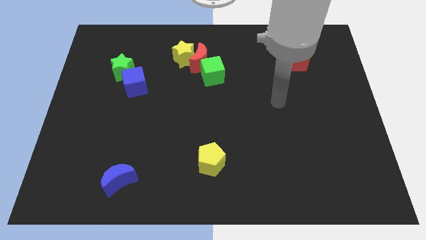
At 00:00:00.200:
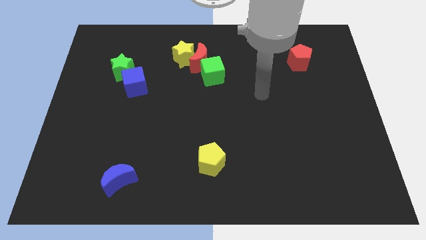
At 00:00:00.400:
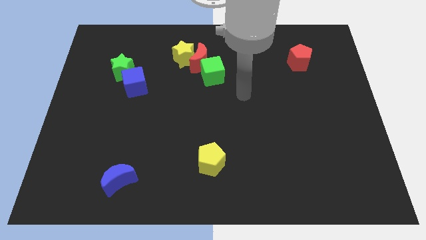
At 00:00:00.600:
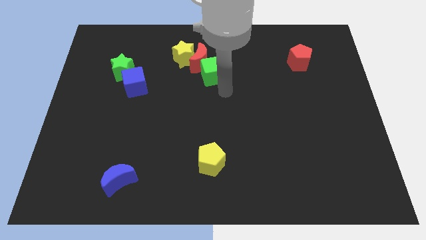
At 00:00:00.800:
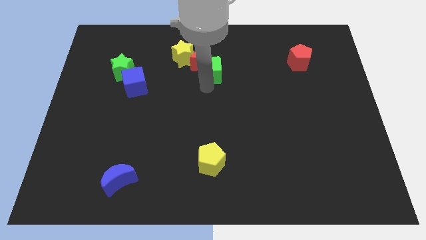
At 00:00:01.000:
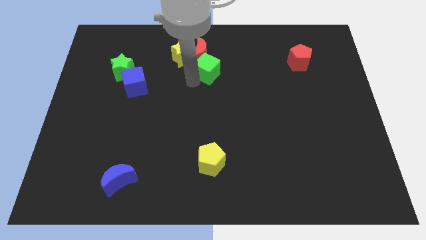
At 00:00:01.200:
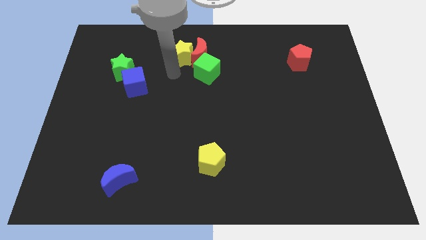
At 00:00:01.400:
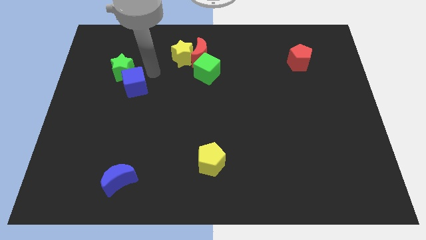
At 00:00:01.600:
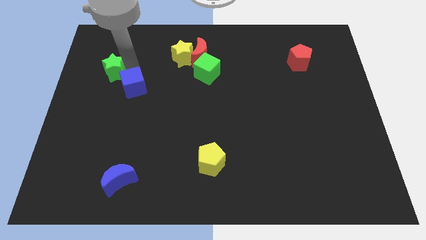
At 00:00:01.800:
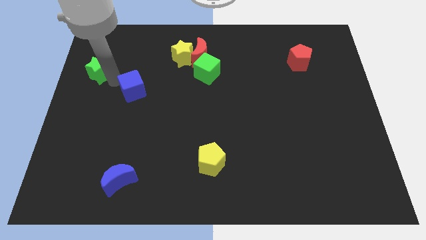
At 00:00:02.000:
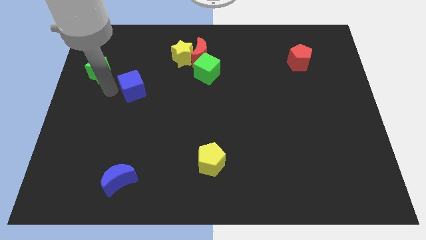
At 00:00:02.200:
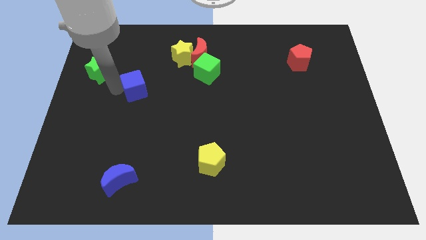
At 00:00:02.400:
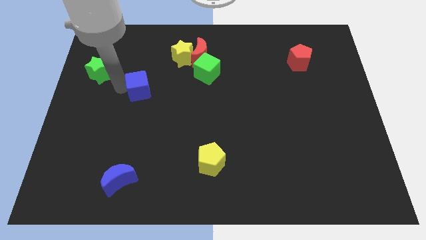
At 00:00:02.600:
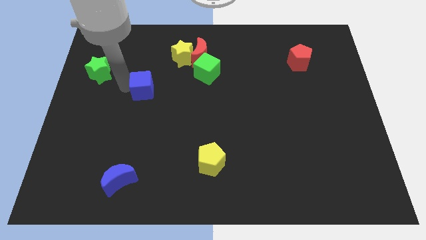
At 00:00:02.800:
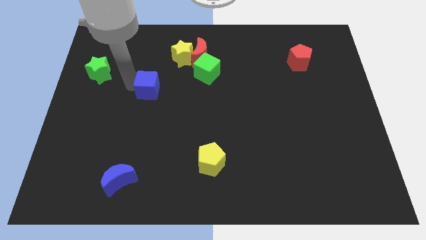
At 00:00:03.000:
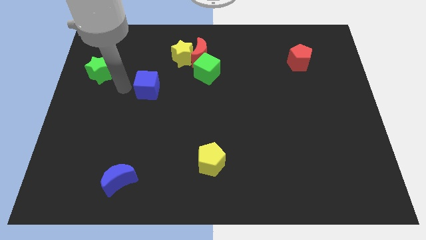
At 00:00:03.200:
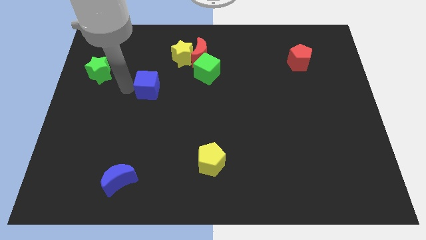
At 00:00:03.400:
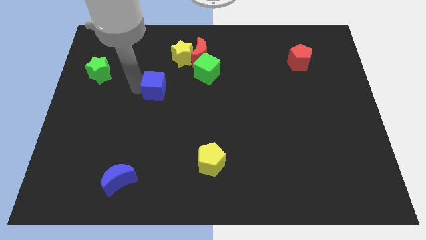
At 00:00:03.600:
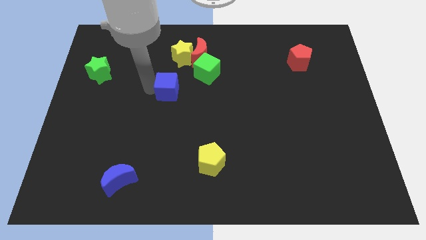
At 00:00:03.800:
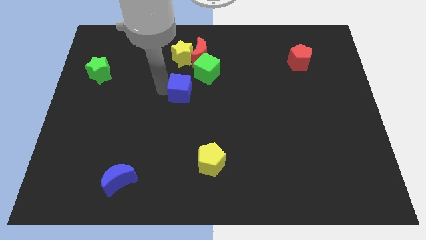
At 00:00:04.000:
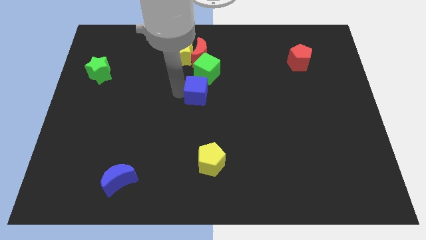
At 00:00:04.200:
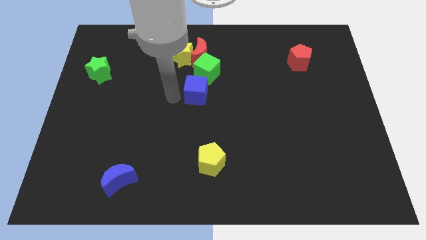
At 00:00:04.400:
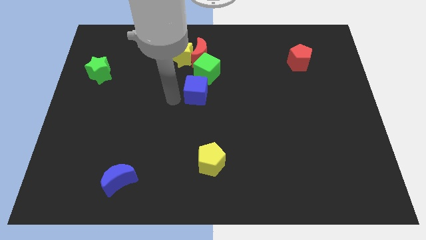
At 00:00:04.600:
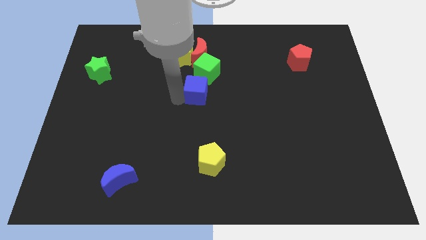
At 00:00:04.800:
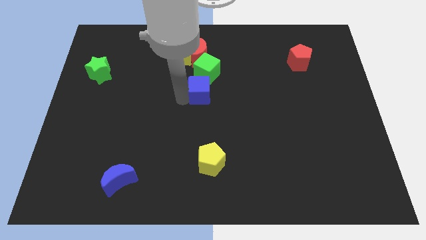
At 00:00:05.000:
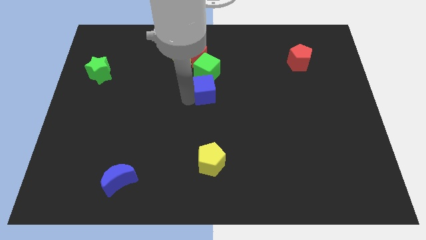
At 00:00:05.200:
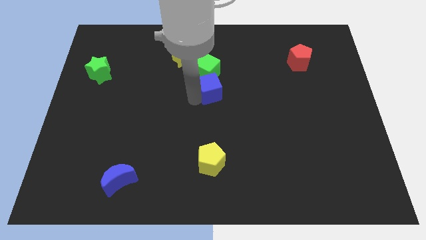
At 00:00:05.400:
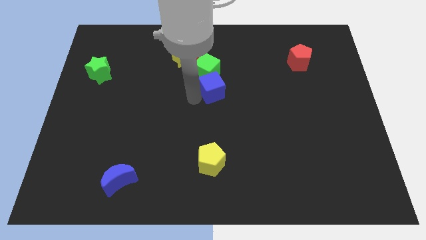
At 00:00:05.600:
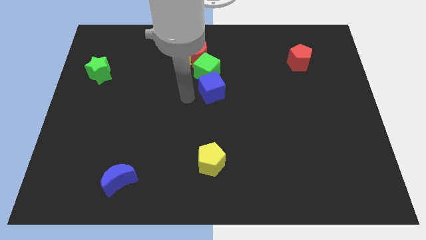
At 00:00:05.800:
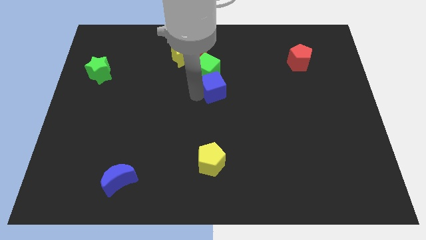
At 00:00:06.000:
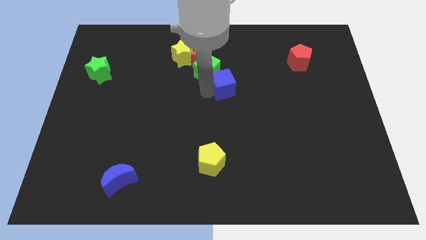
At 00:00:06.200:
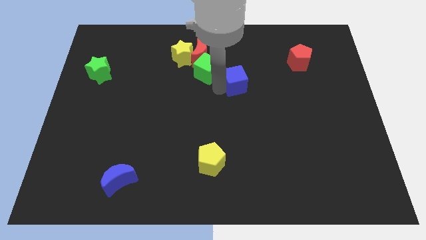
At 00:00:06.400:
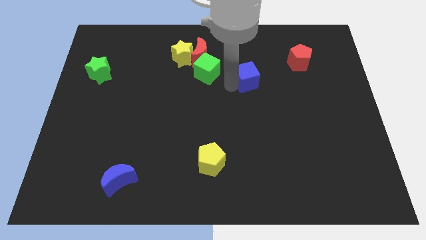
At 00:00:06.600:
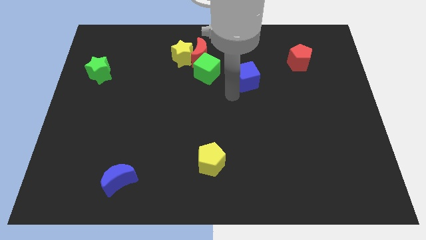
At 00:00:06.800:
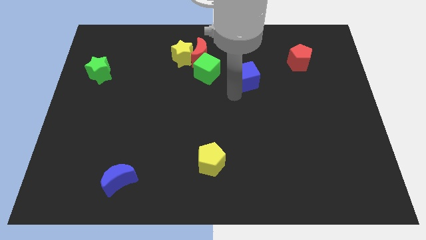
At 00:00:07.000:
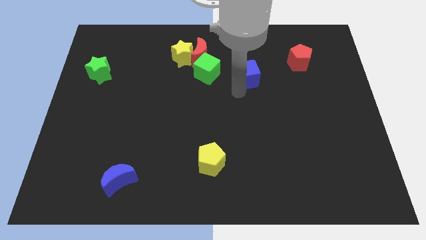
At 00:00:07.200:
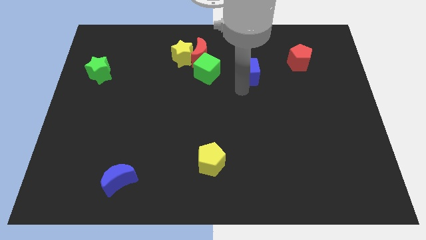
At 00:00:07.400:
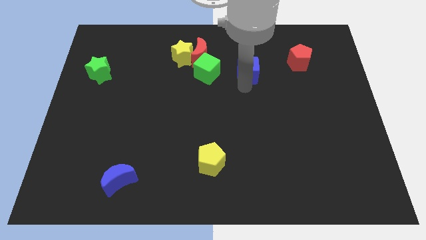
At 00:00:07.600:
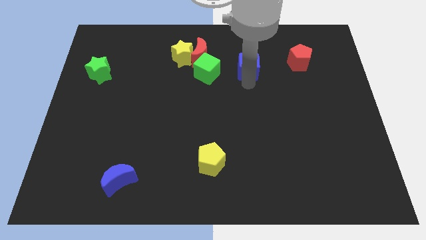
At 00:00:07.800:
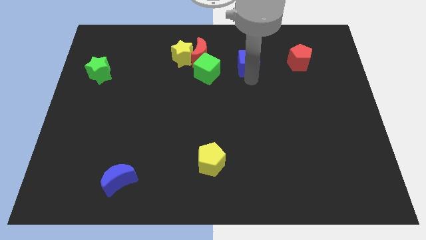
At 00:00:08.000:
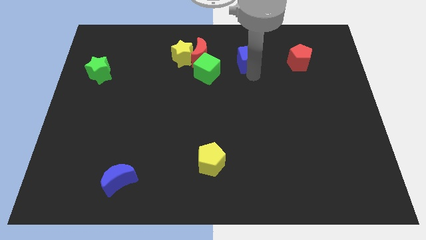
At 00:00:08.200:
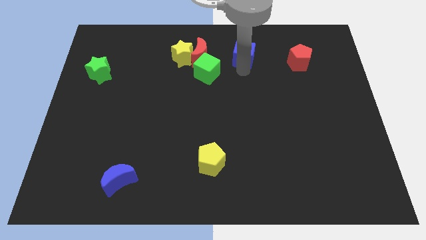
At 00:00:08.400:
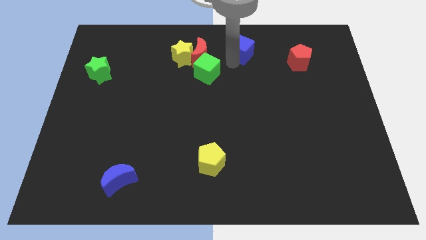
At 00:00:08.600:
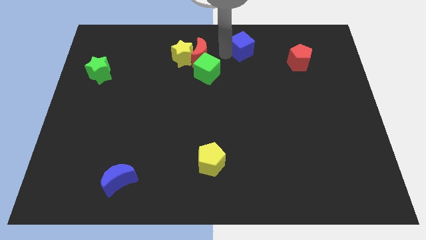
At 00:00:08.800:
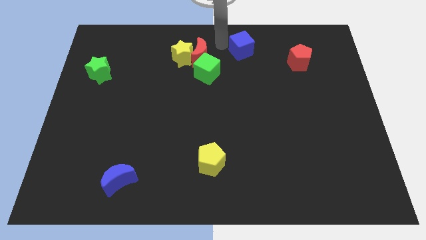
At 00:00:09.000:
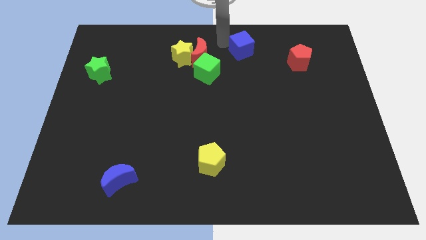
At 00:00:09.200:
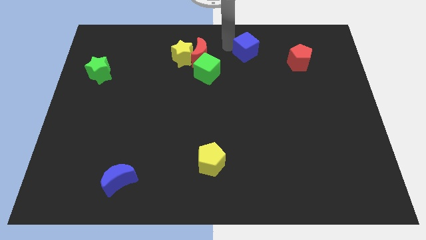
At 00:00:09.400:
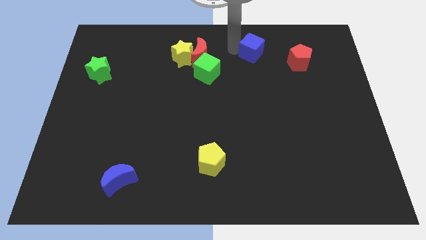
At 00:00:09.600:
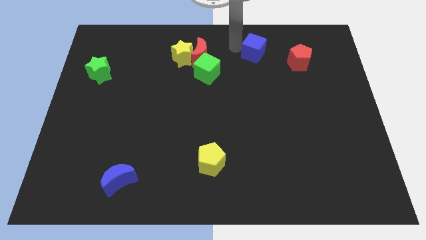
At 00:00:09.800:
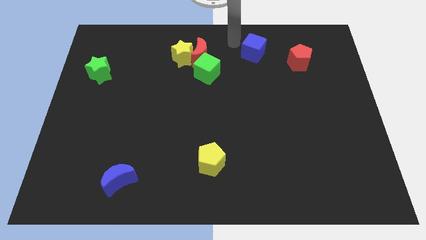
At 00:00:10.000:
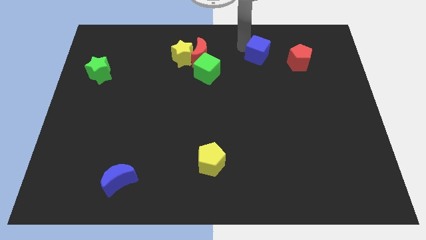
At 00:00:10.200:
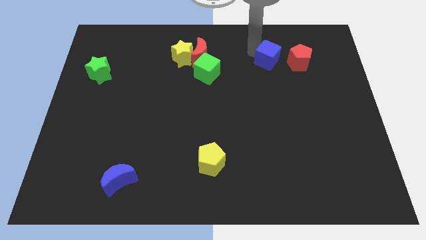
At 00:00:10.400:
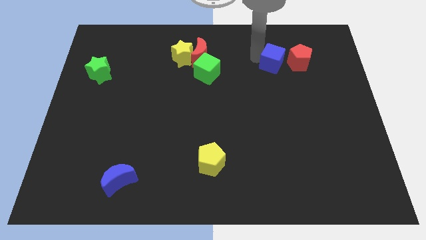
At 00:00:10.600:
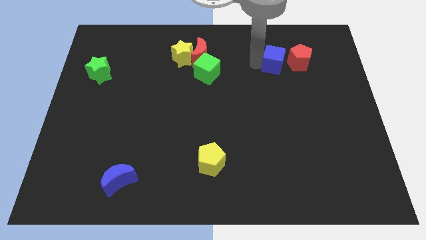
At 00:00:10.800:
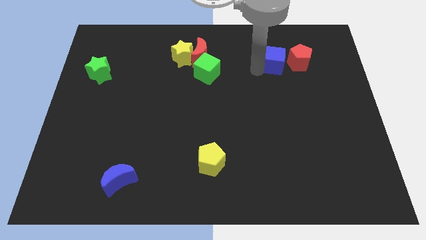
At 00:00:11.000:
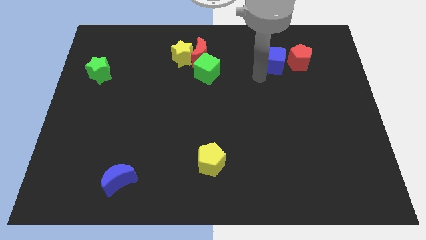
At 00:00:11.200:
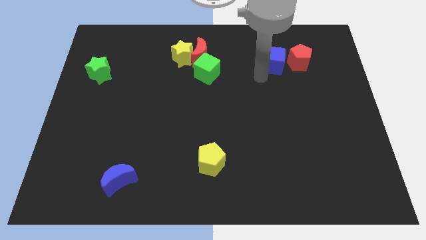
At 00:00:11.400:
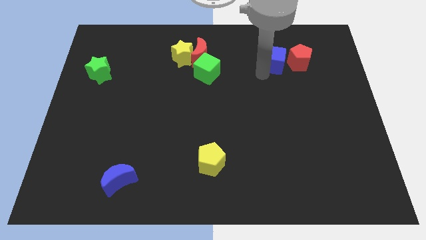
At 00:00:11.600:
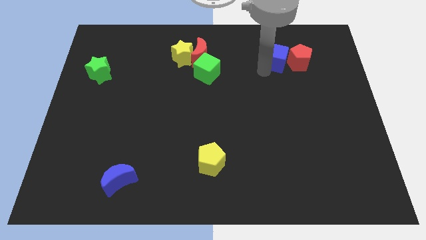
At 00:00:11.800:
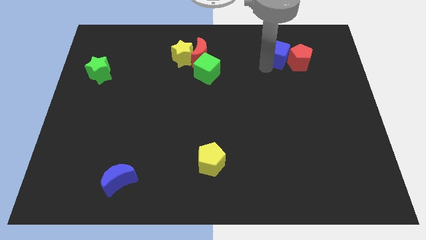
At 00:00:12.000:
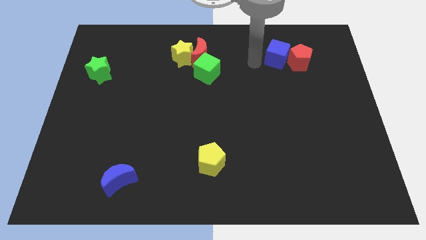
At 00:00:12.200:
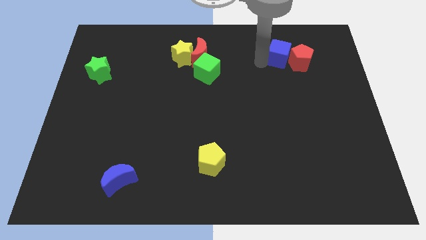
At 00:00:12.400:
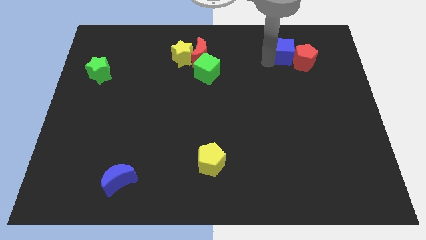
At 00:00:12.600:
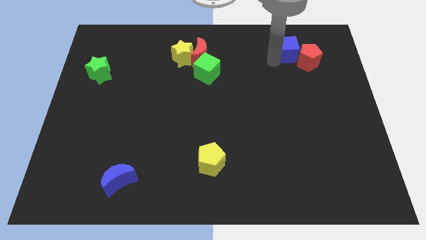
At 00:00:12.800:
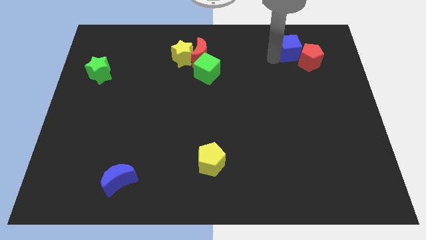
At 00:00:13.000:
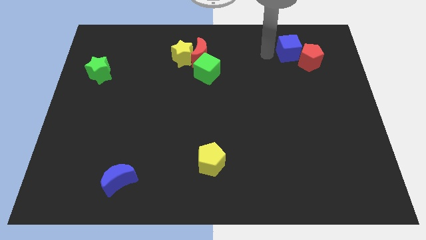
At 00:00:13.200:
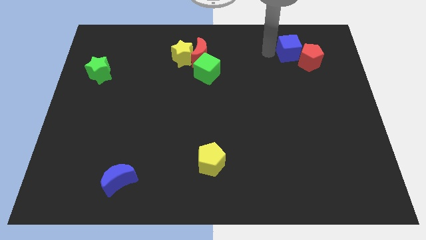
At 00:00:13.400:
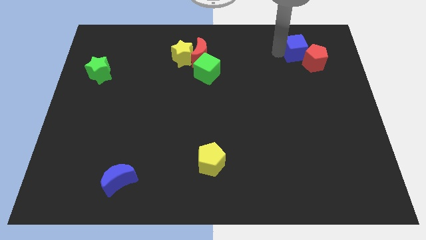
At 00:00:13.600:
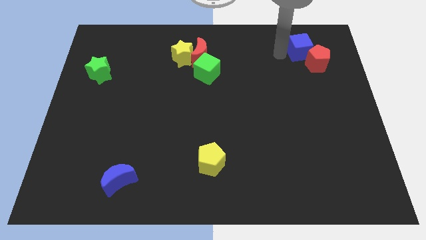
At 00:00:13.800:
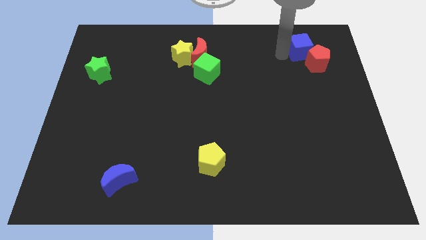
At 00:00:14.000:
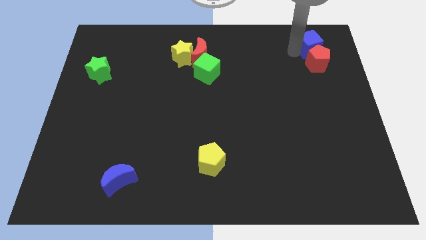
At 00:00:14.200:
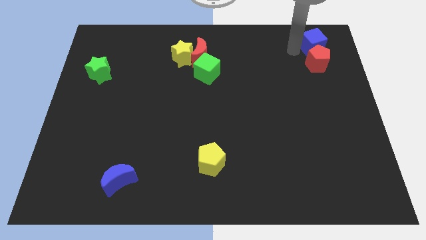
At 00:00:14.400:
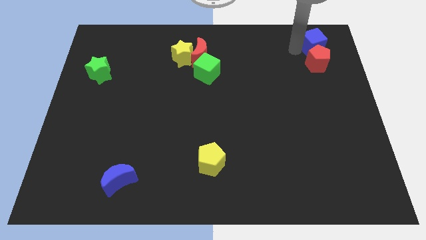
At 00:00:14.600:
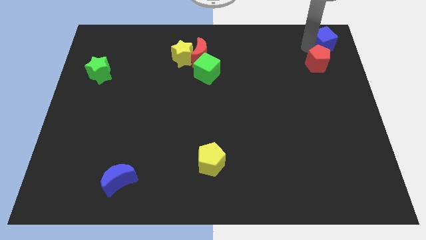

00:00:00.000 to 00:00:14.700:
move the blue cube to the top right corner
